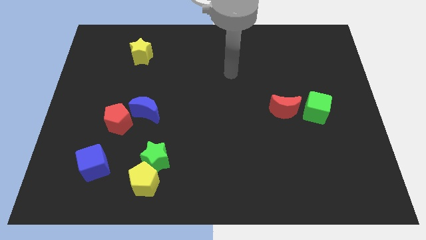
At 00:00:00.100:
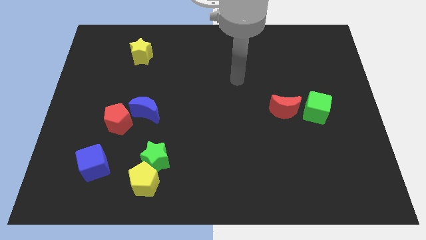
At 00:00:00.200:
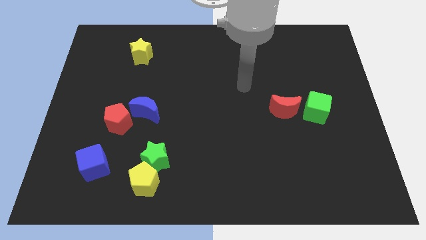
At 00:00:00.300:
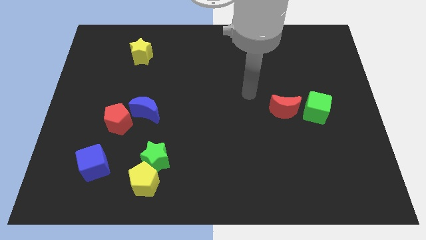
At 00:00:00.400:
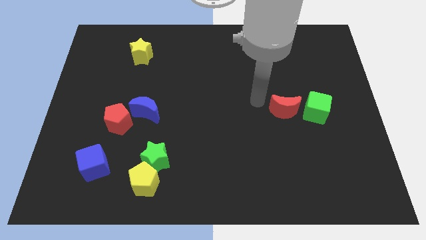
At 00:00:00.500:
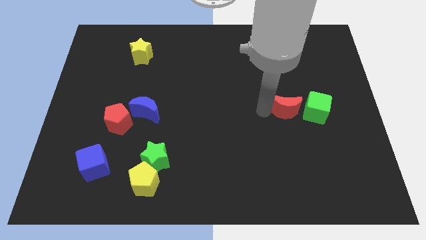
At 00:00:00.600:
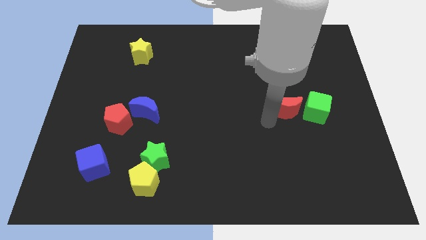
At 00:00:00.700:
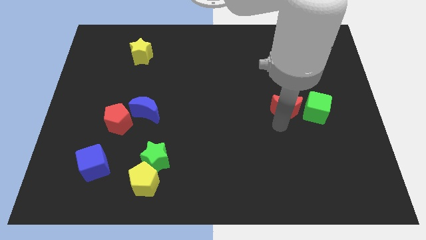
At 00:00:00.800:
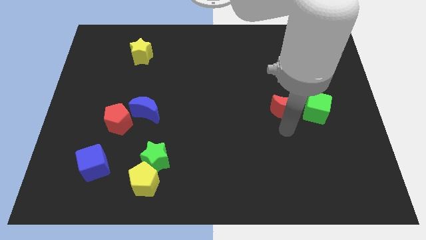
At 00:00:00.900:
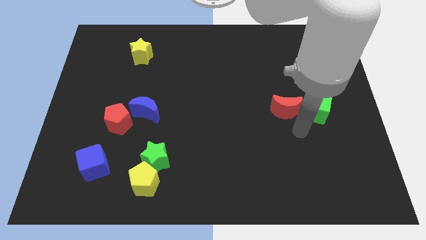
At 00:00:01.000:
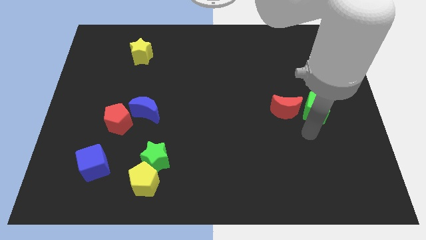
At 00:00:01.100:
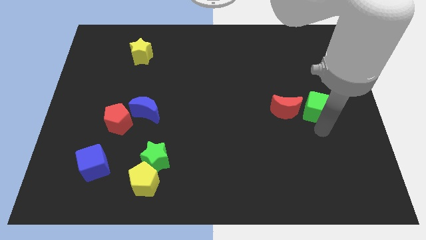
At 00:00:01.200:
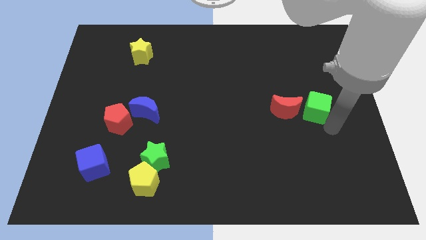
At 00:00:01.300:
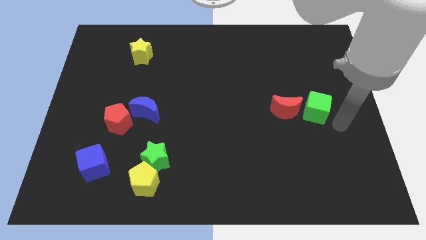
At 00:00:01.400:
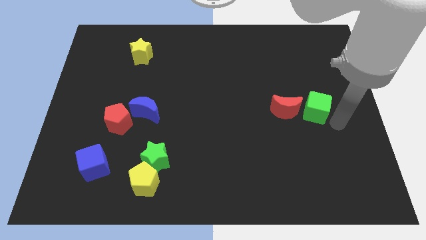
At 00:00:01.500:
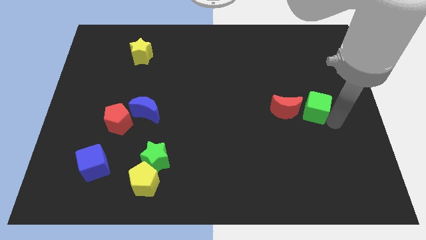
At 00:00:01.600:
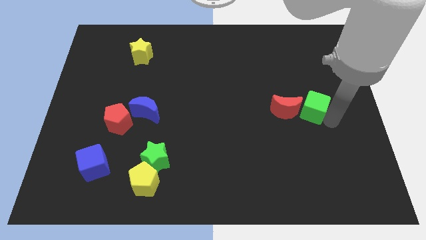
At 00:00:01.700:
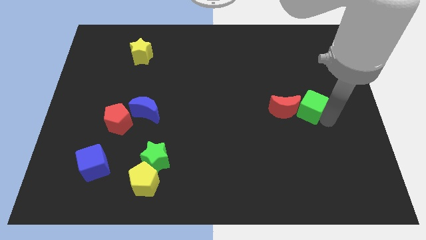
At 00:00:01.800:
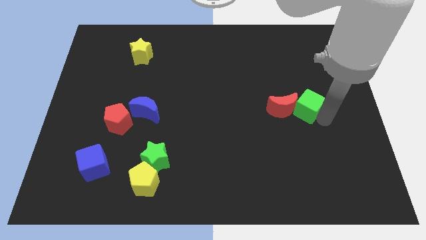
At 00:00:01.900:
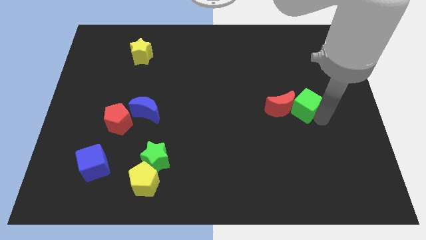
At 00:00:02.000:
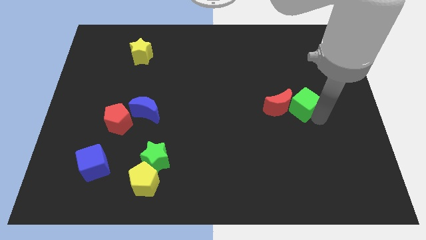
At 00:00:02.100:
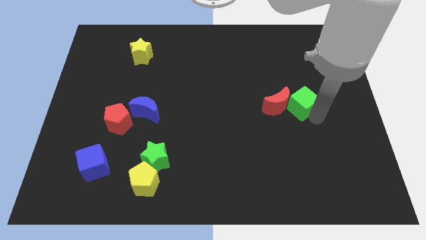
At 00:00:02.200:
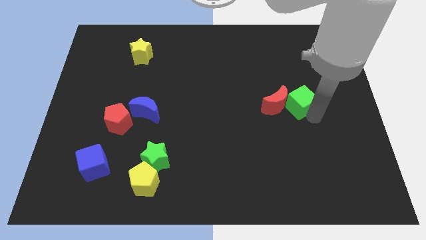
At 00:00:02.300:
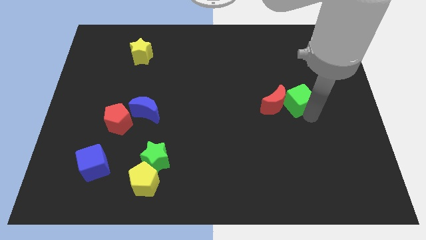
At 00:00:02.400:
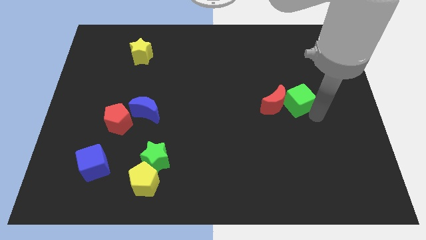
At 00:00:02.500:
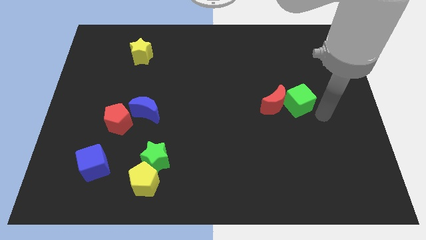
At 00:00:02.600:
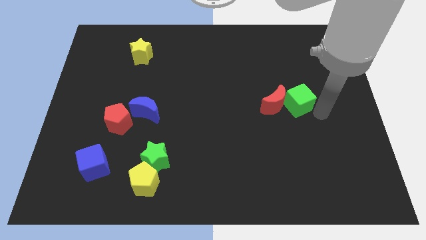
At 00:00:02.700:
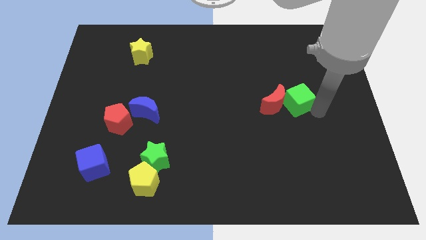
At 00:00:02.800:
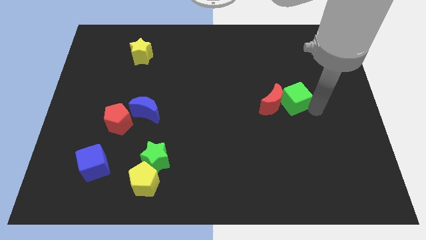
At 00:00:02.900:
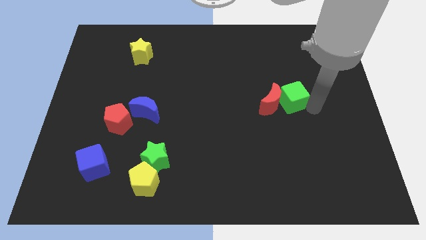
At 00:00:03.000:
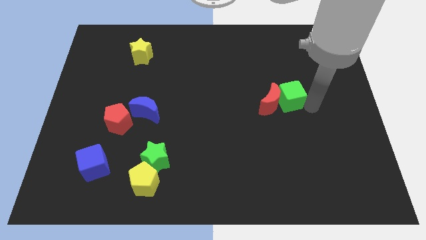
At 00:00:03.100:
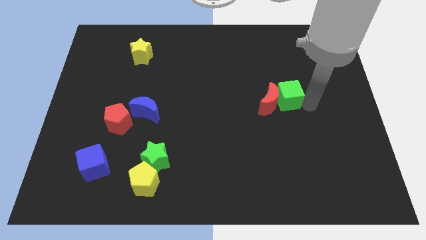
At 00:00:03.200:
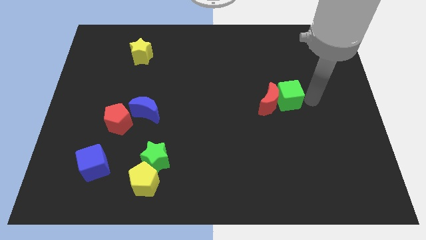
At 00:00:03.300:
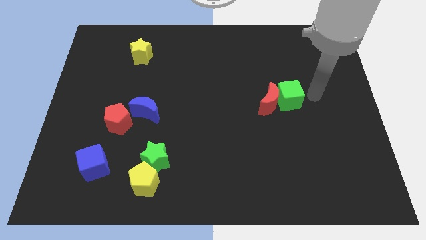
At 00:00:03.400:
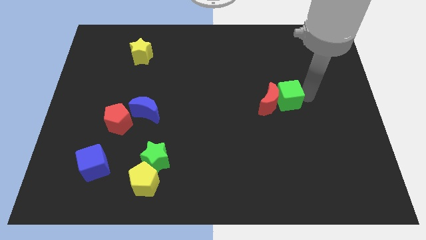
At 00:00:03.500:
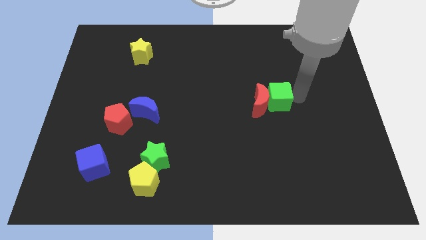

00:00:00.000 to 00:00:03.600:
slightly move the green cube left

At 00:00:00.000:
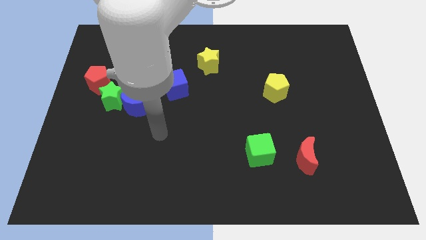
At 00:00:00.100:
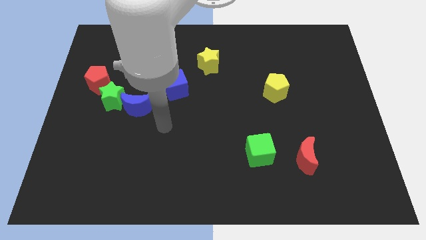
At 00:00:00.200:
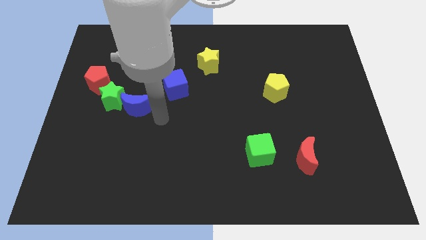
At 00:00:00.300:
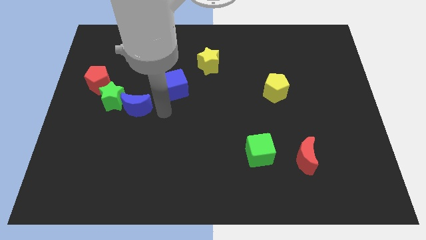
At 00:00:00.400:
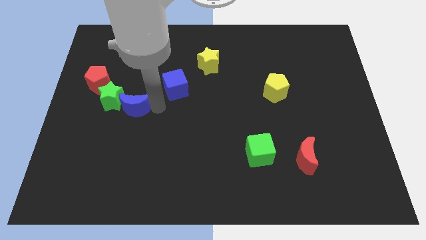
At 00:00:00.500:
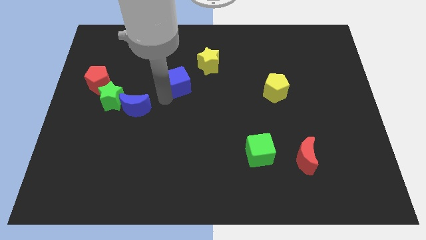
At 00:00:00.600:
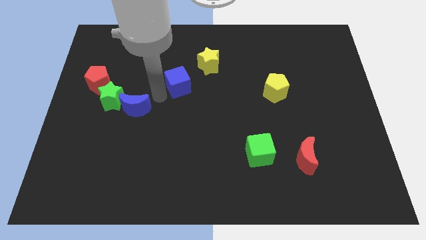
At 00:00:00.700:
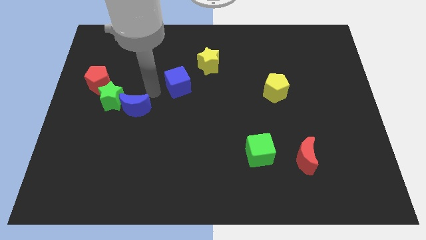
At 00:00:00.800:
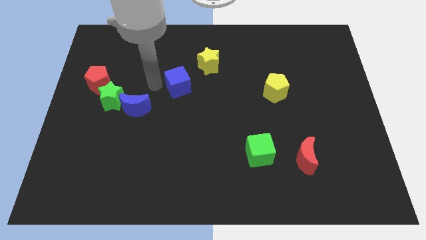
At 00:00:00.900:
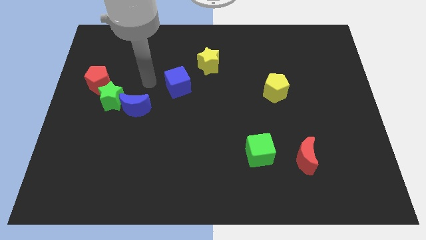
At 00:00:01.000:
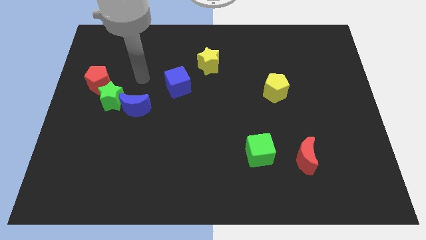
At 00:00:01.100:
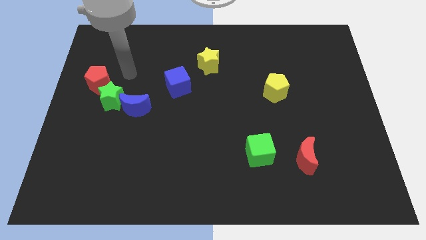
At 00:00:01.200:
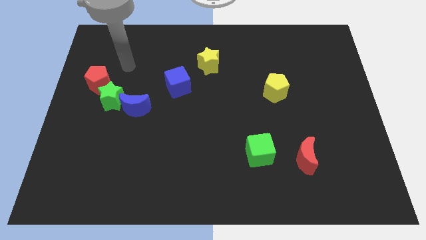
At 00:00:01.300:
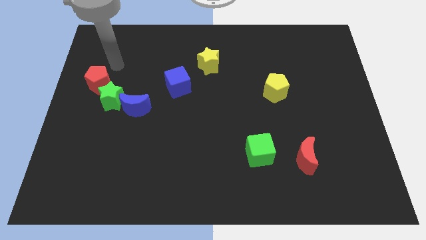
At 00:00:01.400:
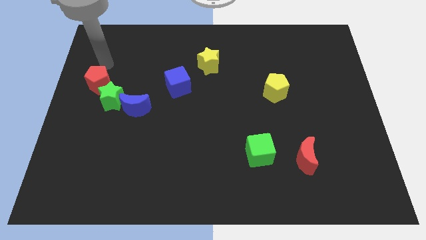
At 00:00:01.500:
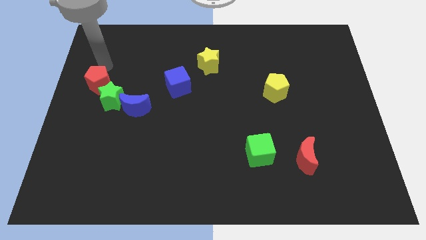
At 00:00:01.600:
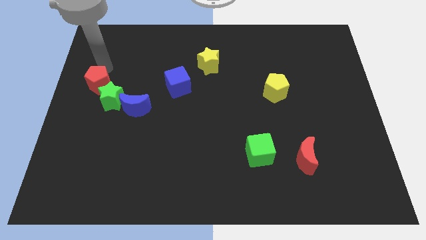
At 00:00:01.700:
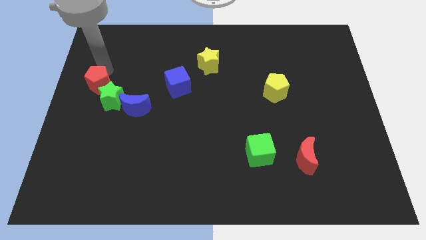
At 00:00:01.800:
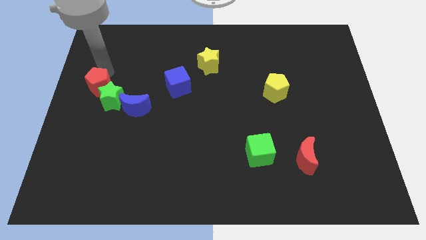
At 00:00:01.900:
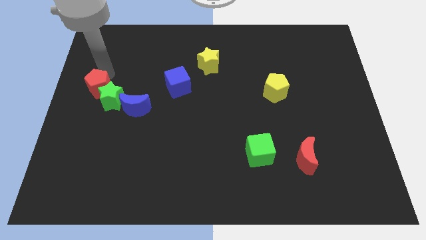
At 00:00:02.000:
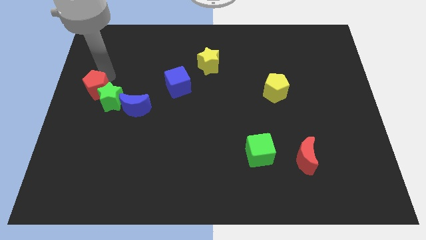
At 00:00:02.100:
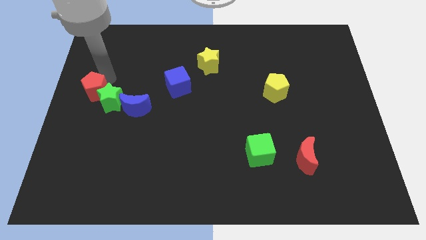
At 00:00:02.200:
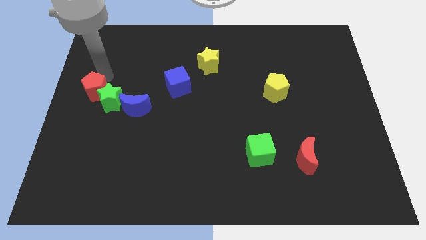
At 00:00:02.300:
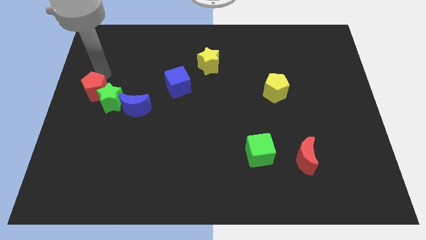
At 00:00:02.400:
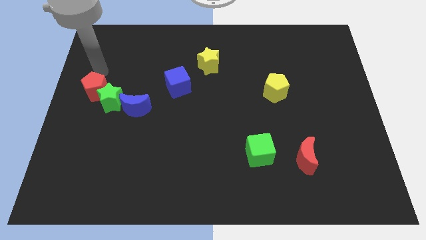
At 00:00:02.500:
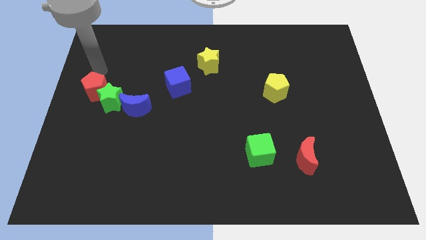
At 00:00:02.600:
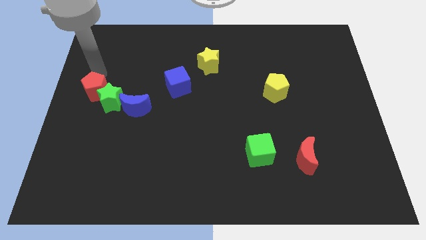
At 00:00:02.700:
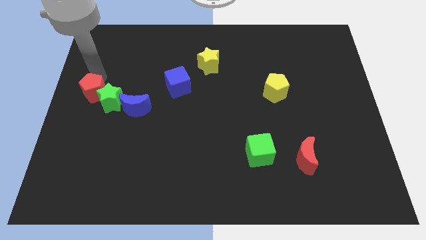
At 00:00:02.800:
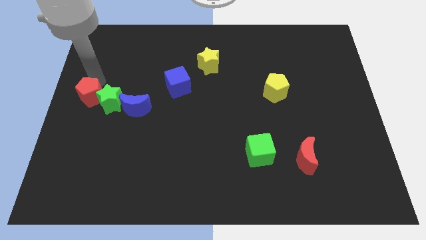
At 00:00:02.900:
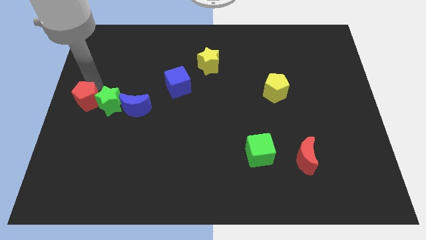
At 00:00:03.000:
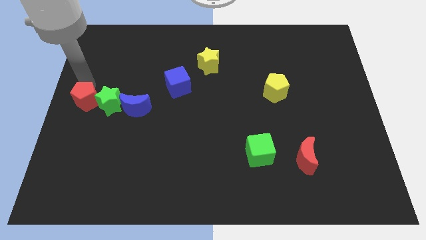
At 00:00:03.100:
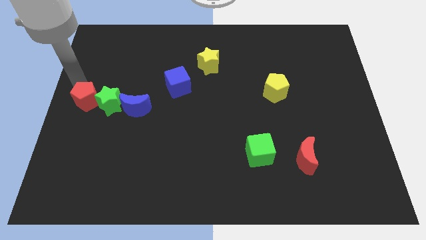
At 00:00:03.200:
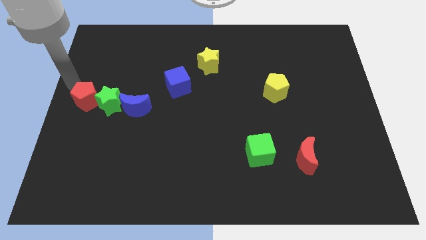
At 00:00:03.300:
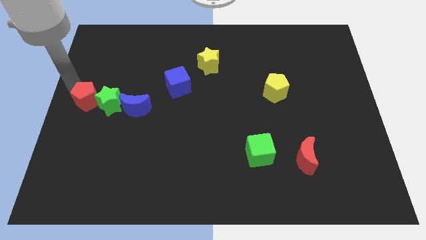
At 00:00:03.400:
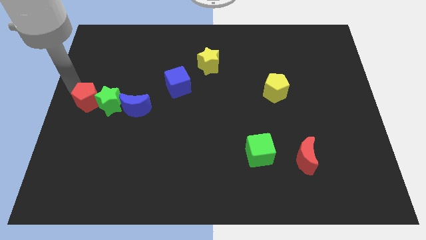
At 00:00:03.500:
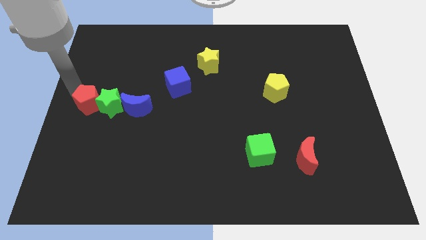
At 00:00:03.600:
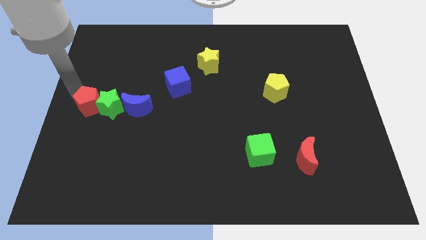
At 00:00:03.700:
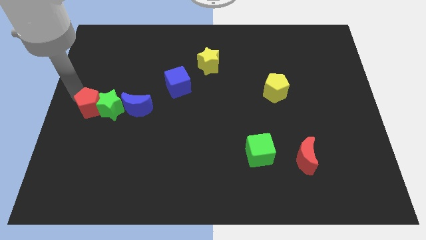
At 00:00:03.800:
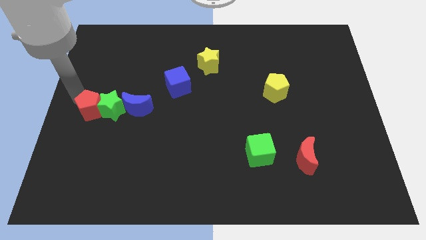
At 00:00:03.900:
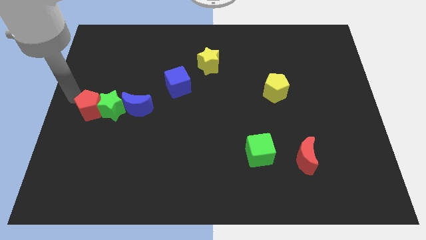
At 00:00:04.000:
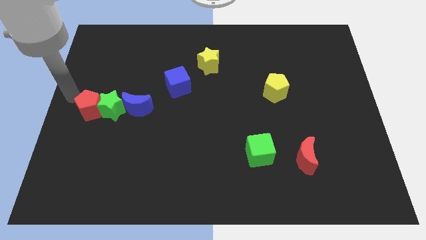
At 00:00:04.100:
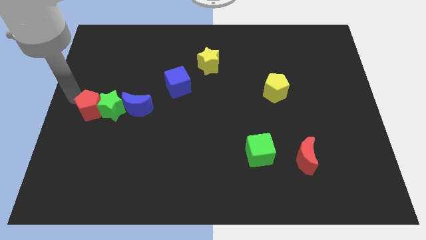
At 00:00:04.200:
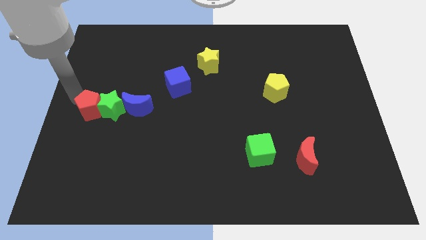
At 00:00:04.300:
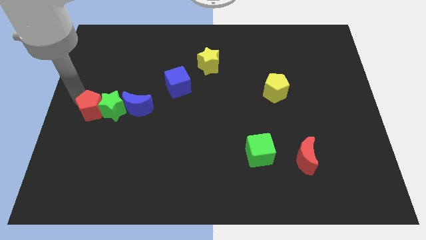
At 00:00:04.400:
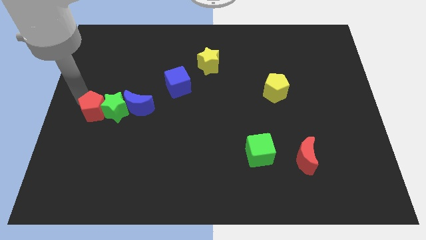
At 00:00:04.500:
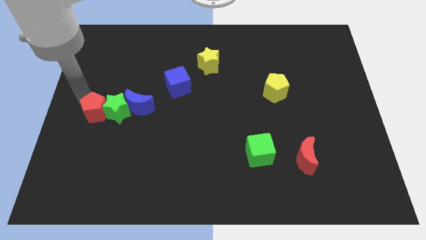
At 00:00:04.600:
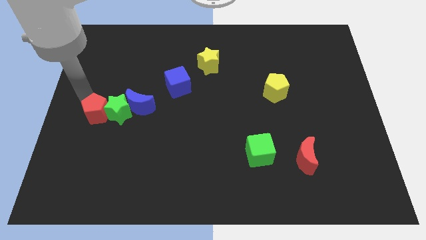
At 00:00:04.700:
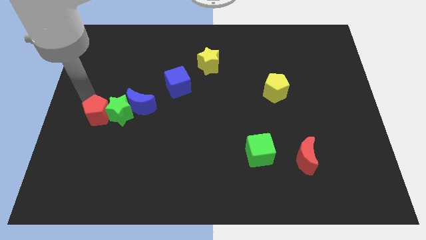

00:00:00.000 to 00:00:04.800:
slightly push the red pentagon diagonally downwards and right
